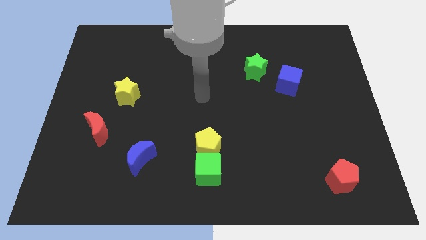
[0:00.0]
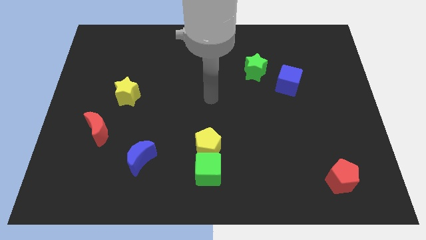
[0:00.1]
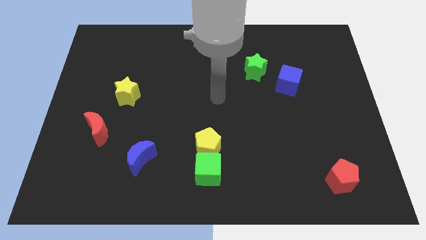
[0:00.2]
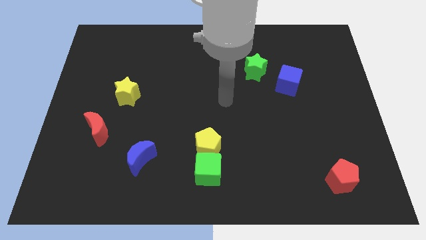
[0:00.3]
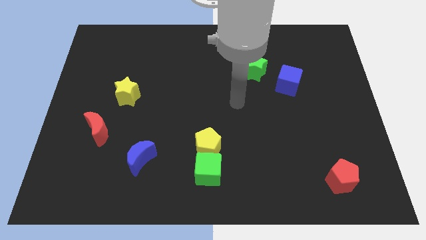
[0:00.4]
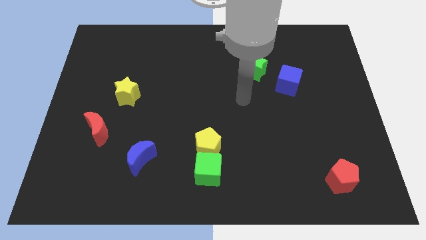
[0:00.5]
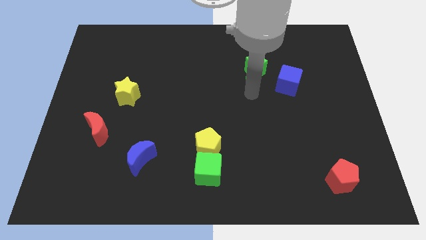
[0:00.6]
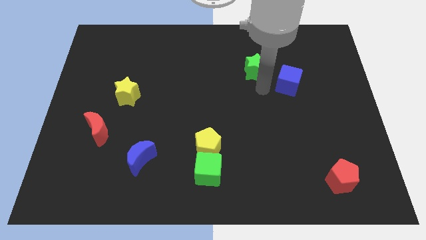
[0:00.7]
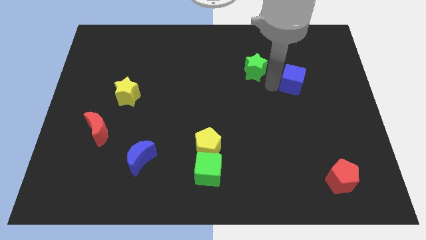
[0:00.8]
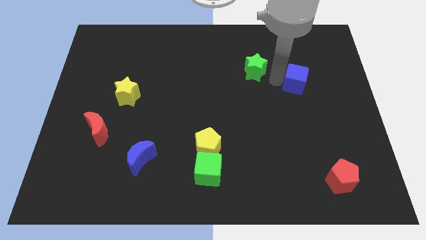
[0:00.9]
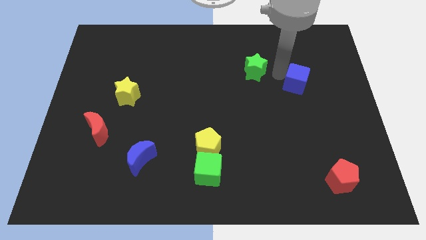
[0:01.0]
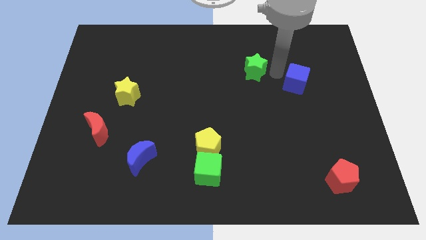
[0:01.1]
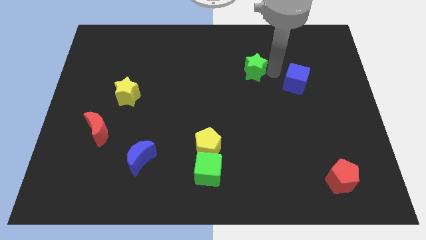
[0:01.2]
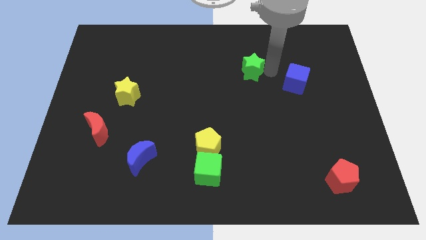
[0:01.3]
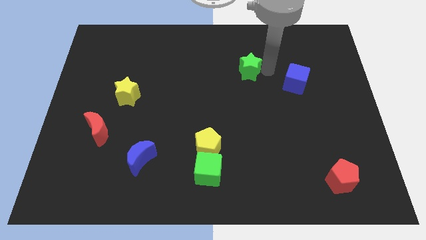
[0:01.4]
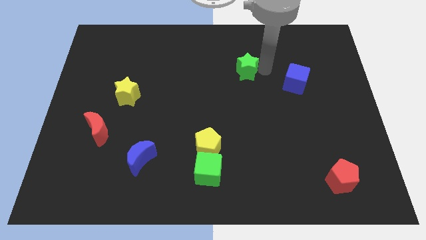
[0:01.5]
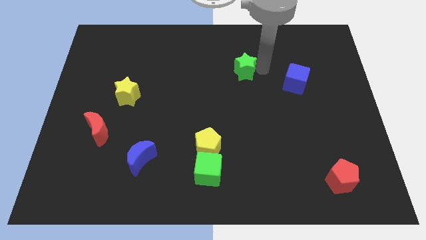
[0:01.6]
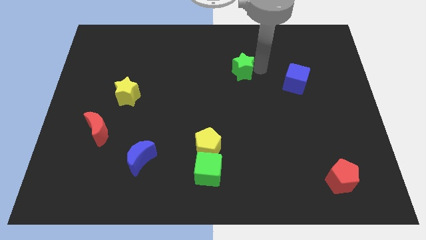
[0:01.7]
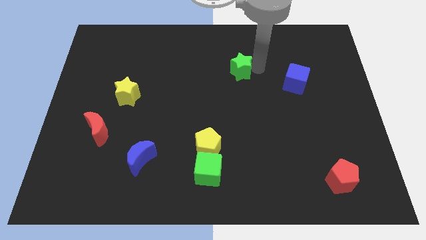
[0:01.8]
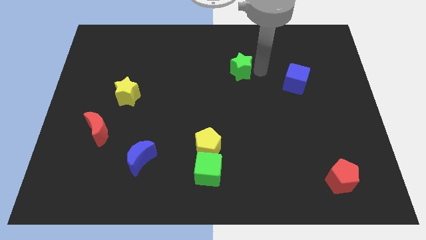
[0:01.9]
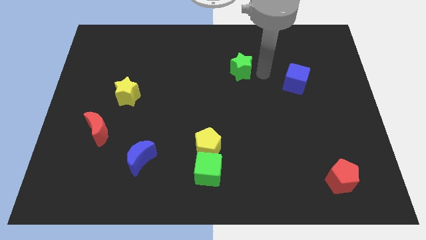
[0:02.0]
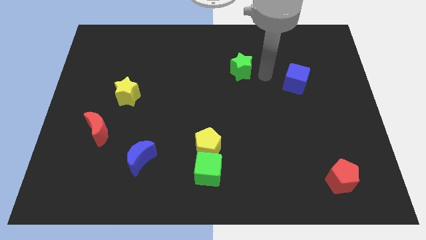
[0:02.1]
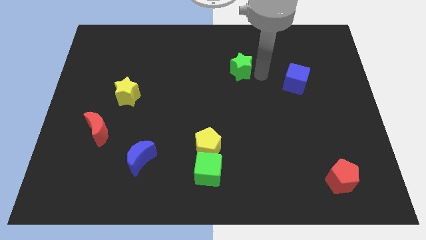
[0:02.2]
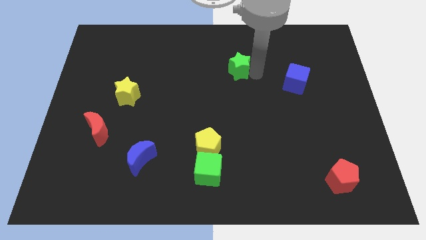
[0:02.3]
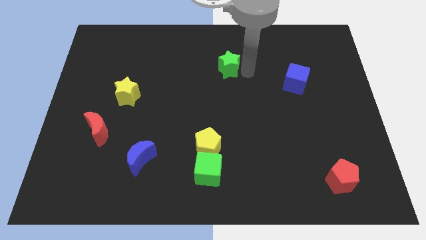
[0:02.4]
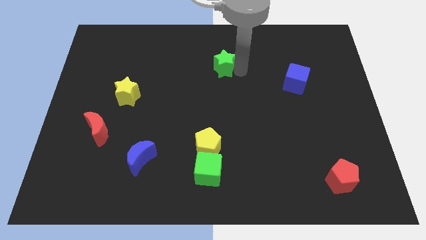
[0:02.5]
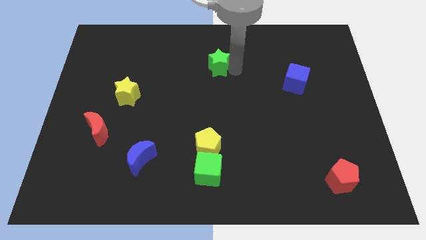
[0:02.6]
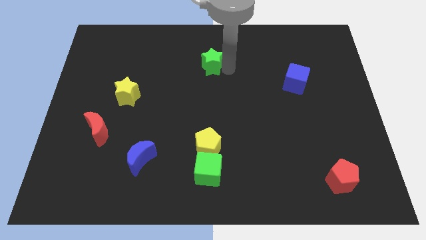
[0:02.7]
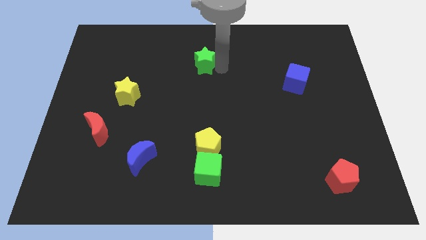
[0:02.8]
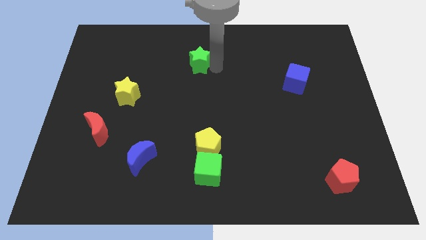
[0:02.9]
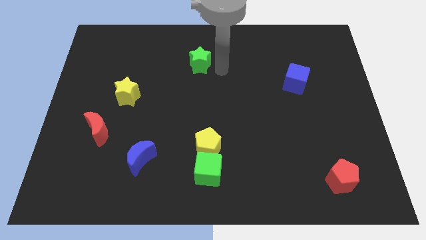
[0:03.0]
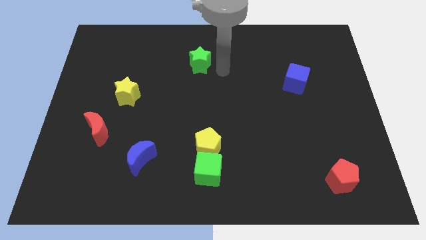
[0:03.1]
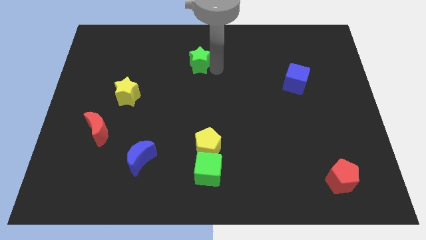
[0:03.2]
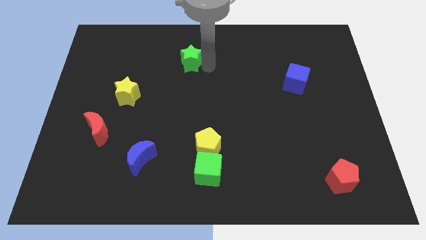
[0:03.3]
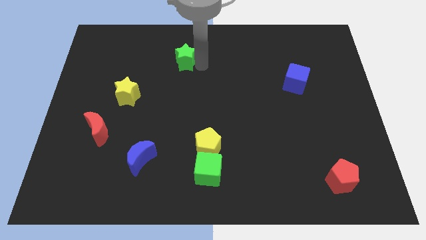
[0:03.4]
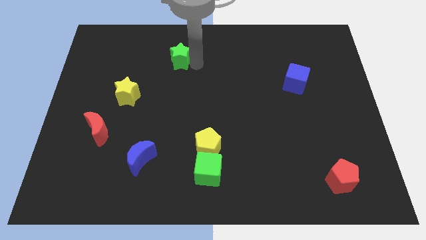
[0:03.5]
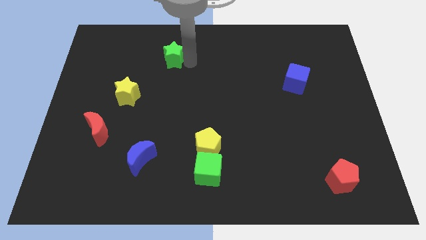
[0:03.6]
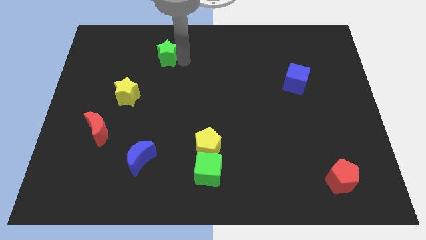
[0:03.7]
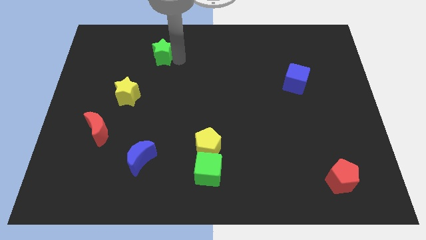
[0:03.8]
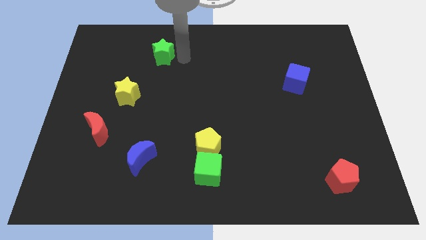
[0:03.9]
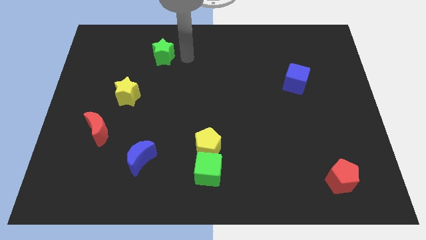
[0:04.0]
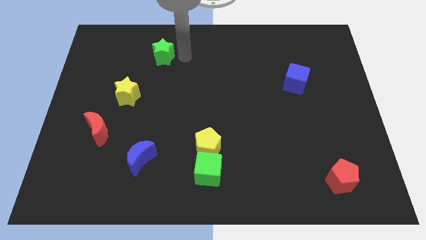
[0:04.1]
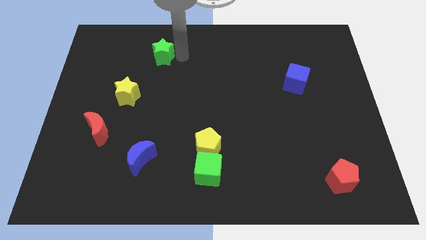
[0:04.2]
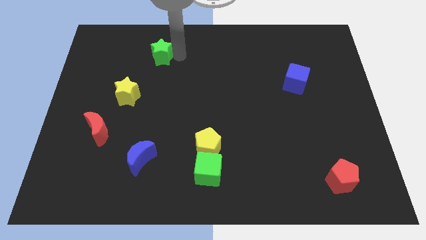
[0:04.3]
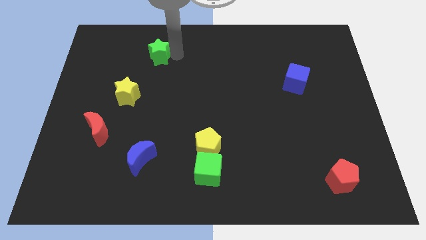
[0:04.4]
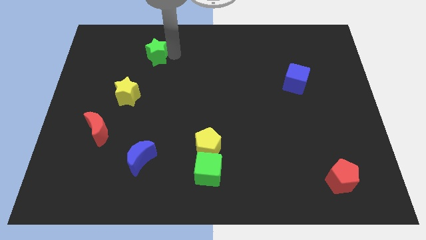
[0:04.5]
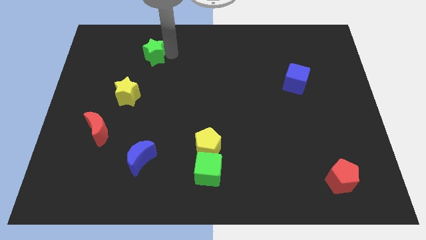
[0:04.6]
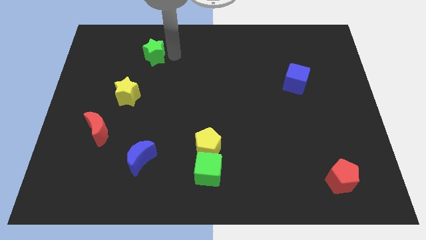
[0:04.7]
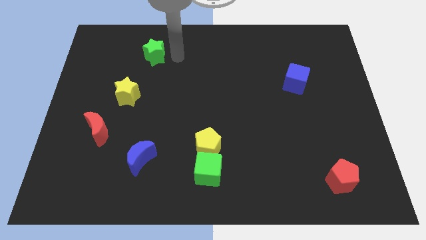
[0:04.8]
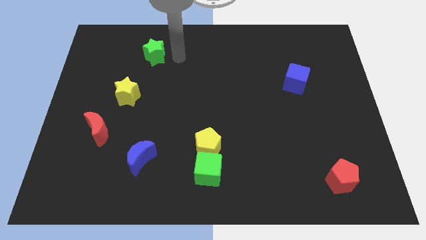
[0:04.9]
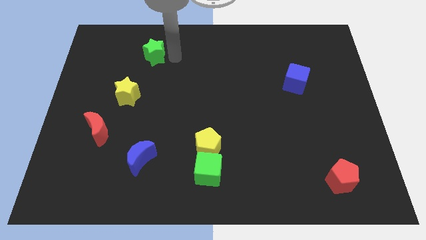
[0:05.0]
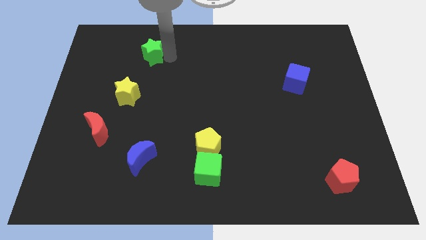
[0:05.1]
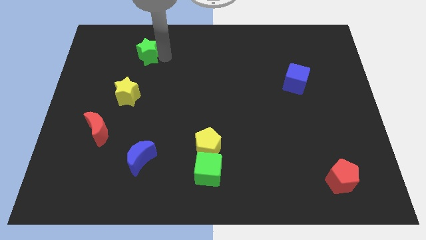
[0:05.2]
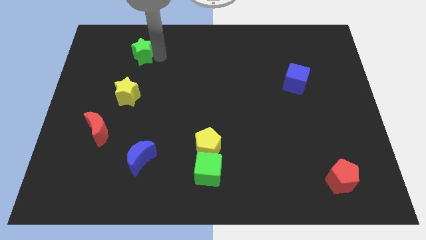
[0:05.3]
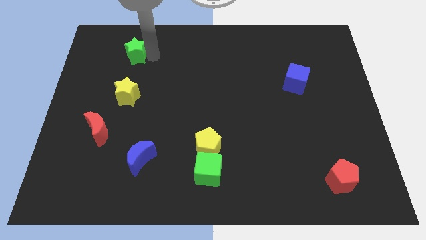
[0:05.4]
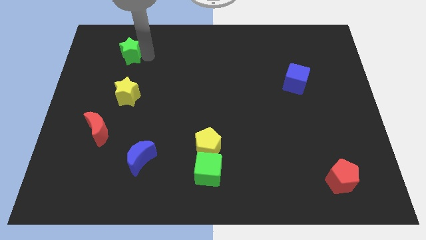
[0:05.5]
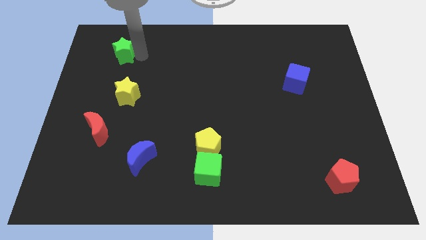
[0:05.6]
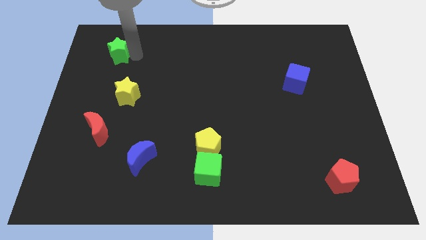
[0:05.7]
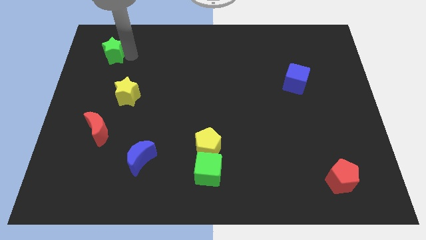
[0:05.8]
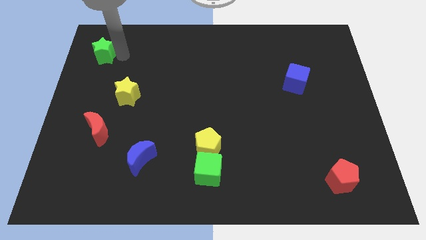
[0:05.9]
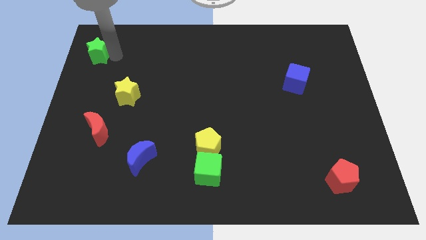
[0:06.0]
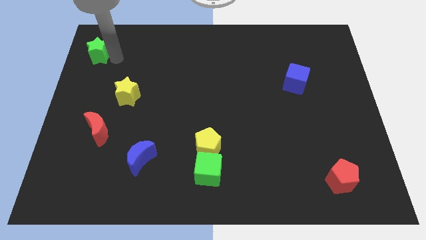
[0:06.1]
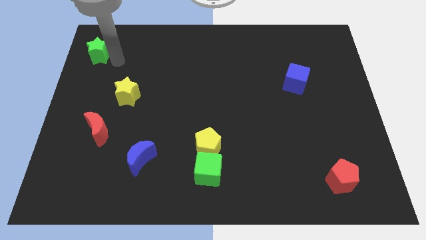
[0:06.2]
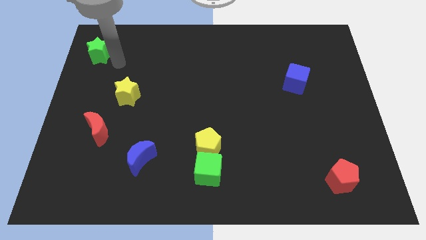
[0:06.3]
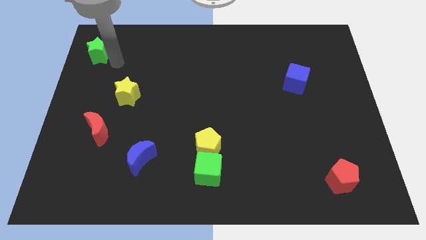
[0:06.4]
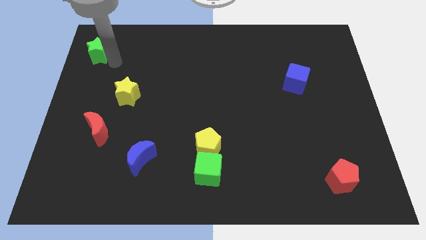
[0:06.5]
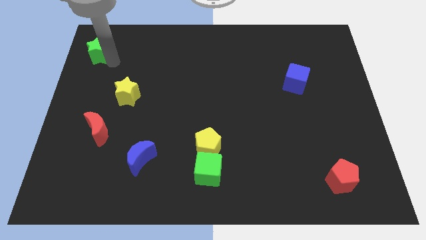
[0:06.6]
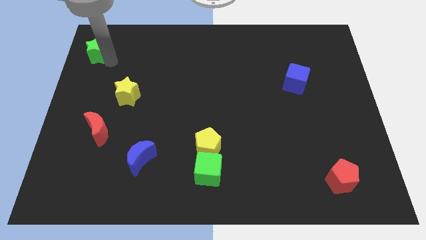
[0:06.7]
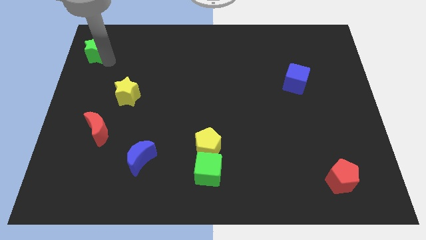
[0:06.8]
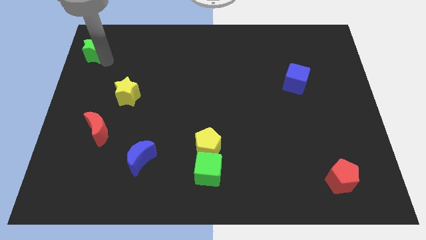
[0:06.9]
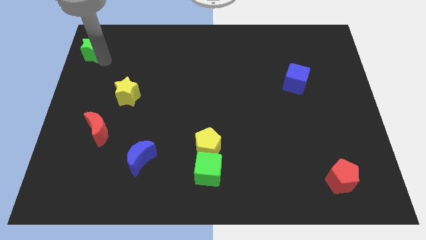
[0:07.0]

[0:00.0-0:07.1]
put the green star to the top left of the board
